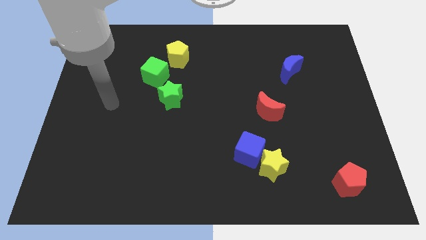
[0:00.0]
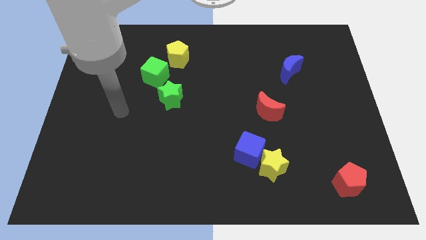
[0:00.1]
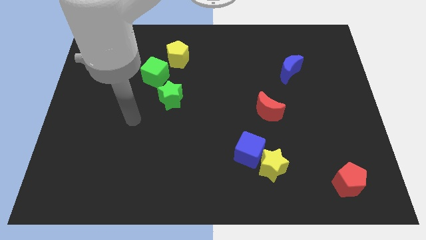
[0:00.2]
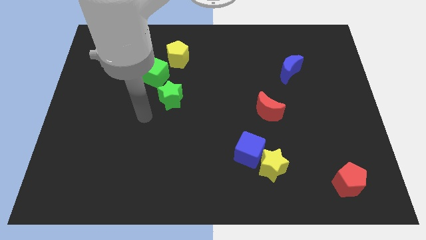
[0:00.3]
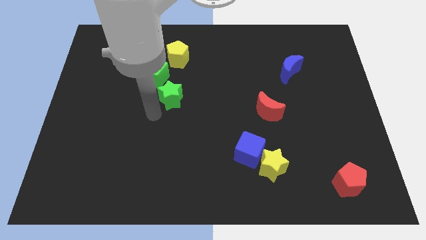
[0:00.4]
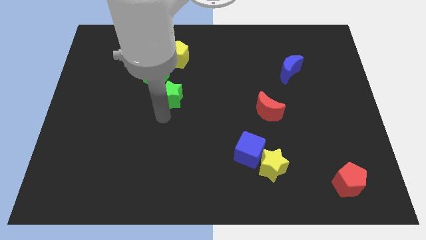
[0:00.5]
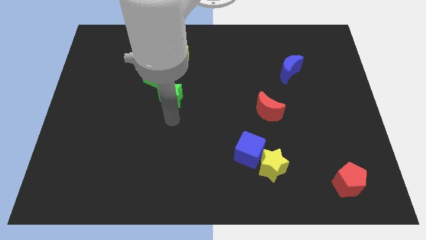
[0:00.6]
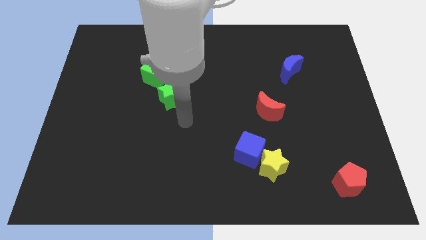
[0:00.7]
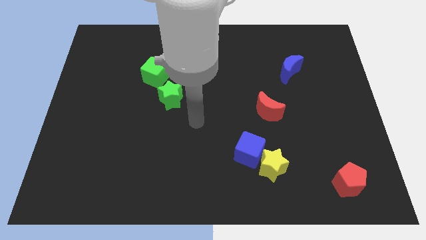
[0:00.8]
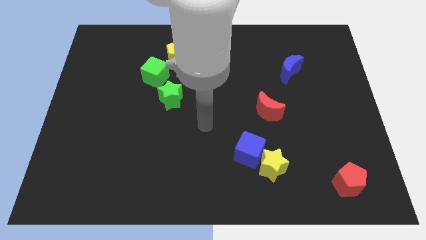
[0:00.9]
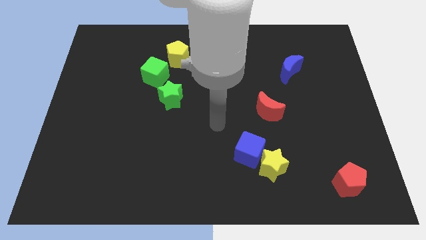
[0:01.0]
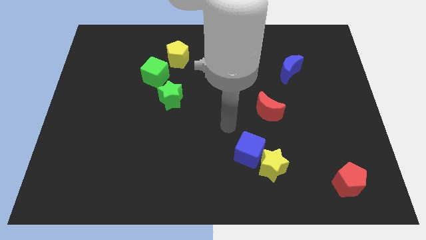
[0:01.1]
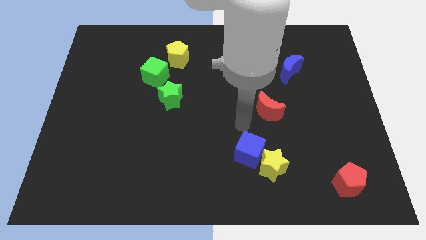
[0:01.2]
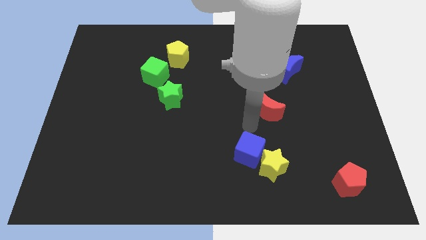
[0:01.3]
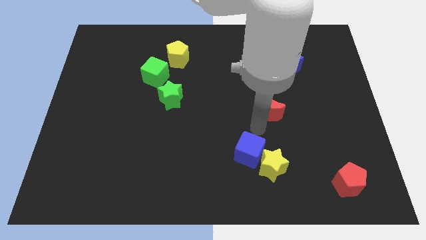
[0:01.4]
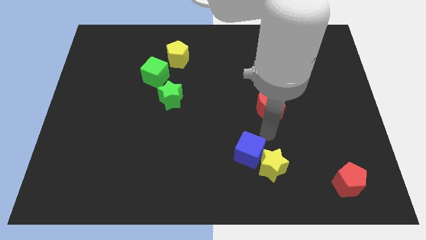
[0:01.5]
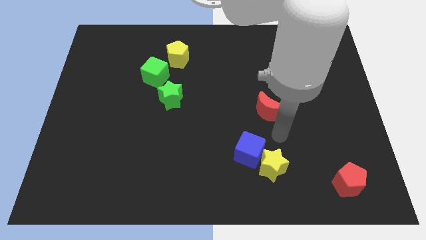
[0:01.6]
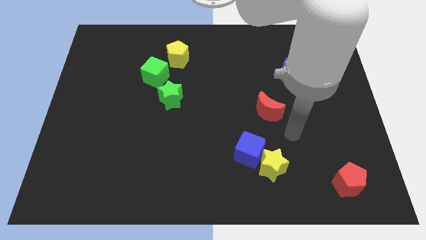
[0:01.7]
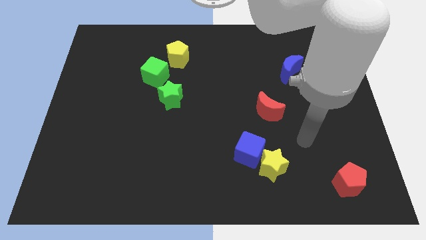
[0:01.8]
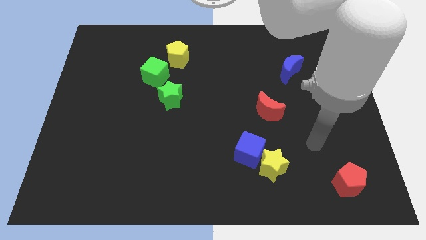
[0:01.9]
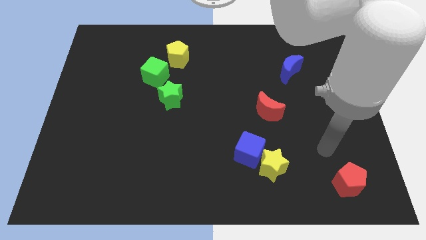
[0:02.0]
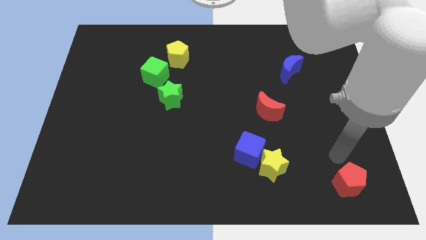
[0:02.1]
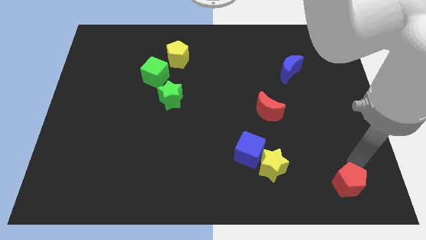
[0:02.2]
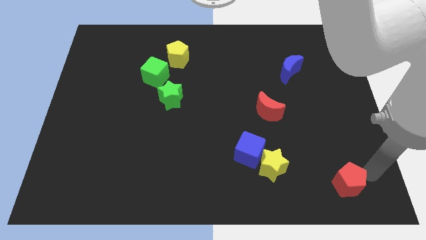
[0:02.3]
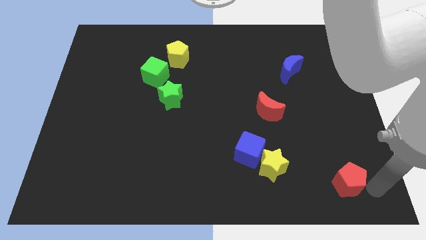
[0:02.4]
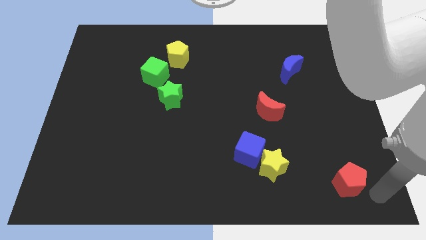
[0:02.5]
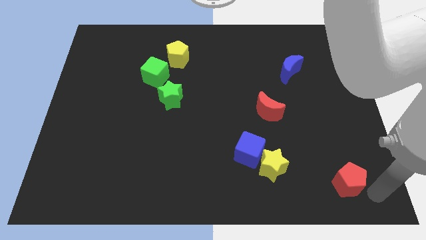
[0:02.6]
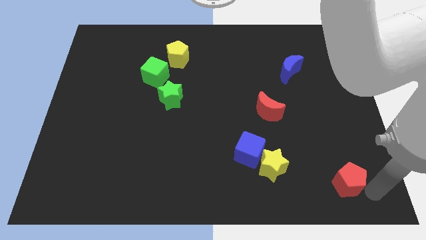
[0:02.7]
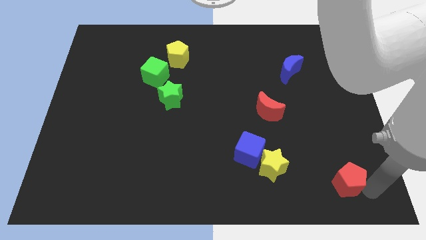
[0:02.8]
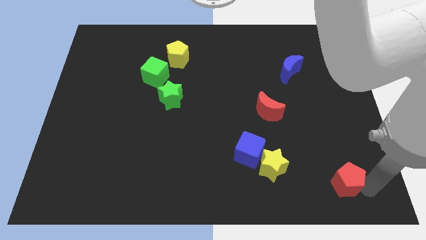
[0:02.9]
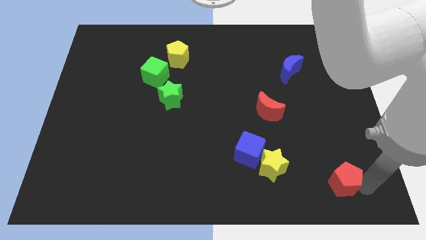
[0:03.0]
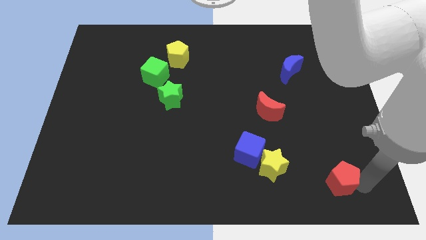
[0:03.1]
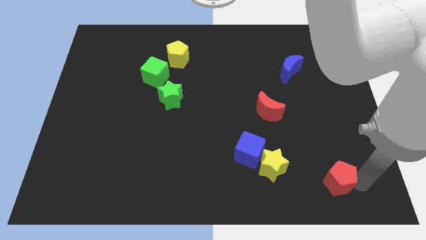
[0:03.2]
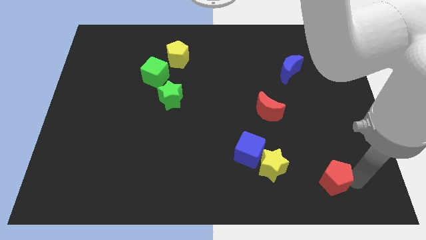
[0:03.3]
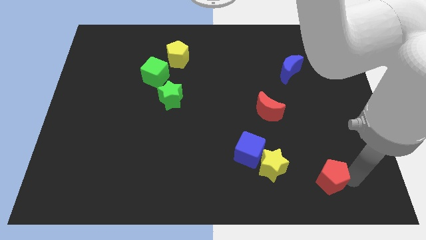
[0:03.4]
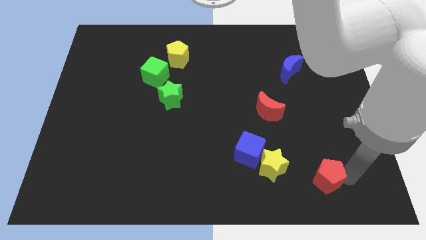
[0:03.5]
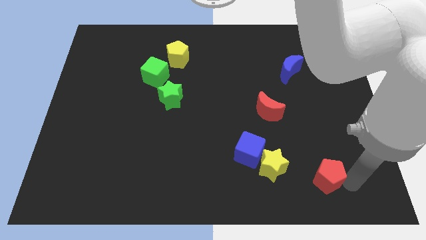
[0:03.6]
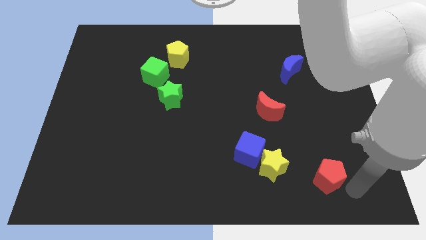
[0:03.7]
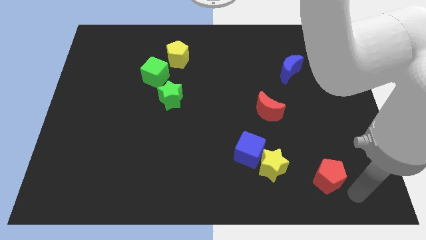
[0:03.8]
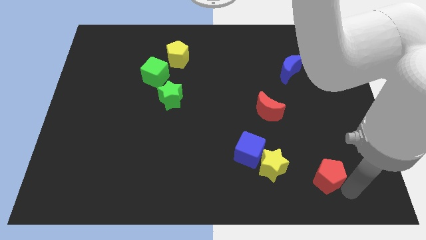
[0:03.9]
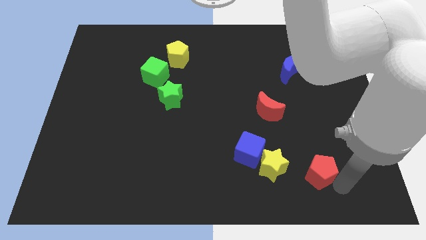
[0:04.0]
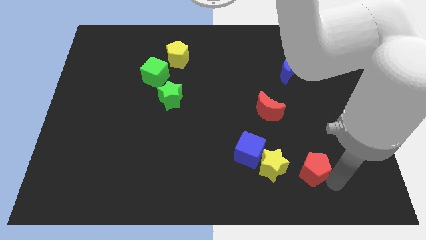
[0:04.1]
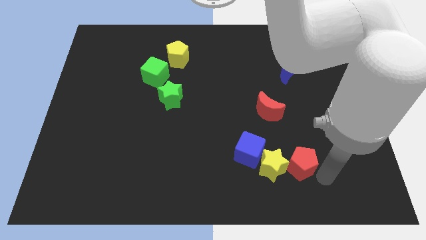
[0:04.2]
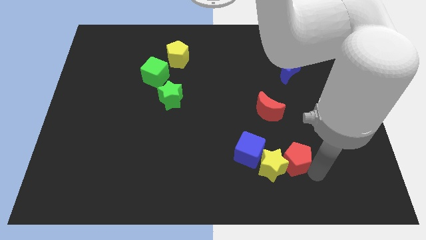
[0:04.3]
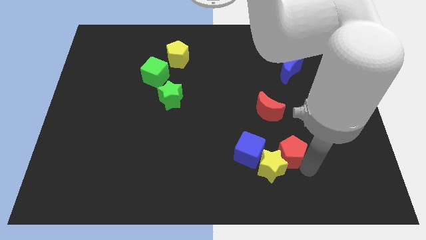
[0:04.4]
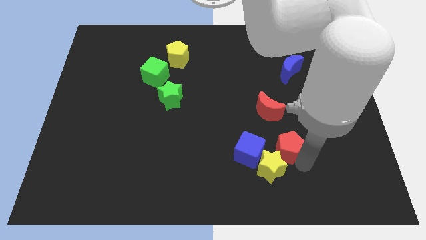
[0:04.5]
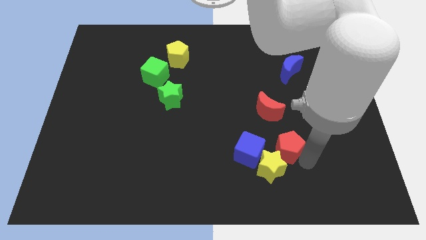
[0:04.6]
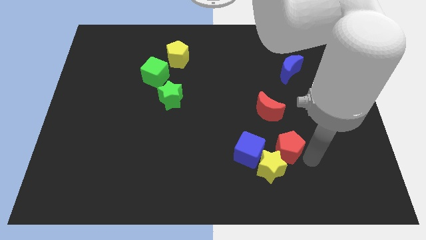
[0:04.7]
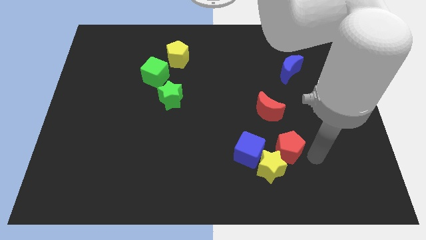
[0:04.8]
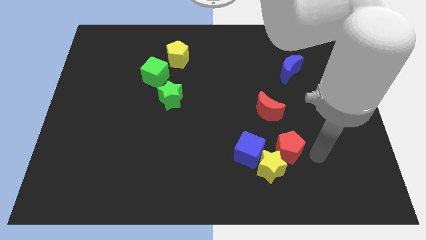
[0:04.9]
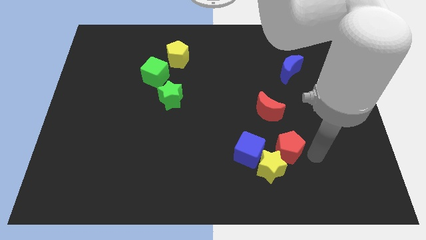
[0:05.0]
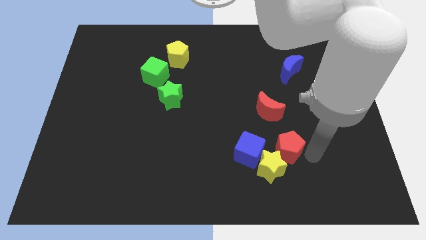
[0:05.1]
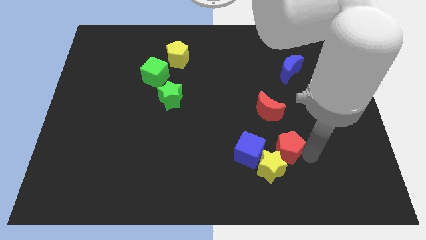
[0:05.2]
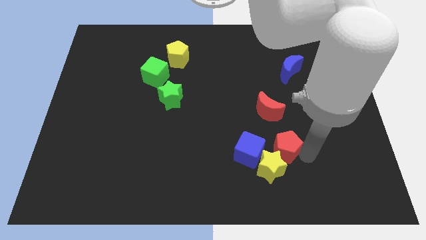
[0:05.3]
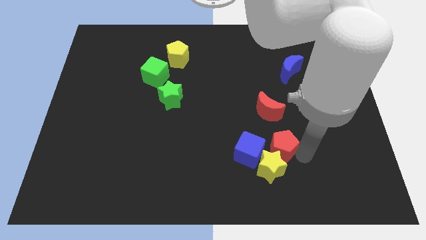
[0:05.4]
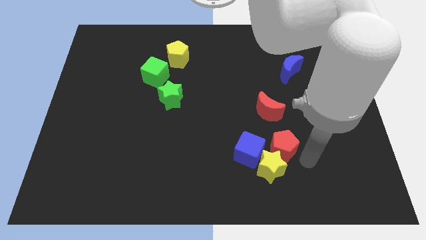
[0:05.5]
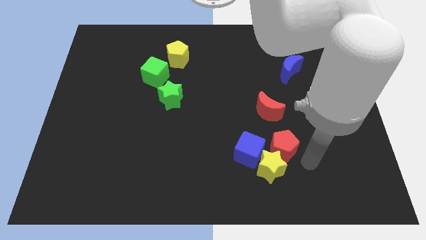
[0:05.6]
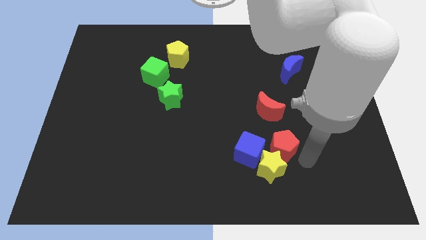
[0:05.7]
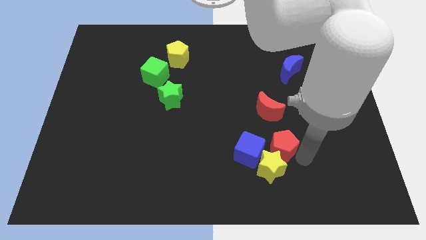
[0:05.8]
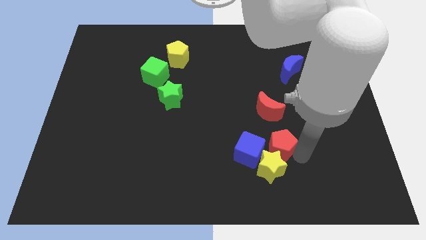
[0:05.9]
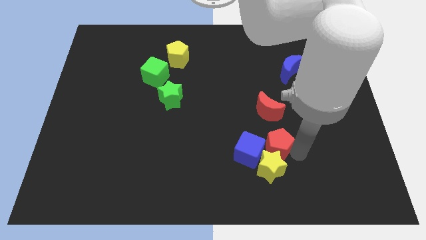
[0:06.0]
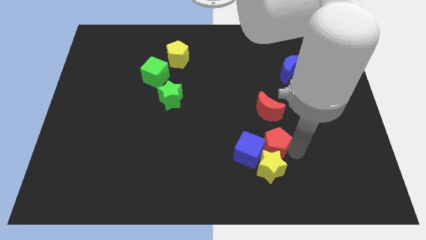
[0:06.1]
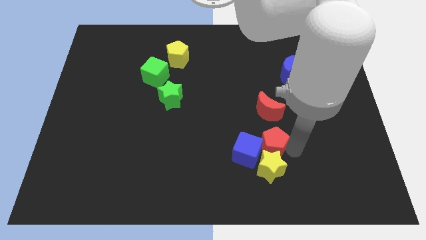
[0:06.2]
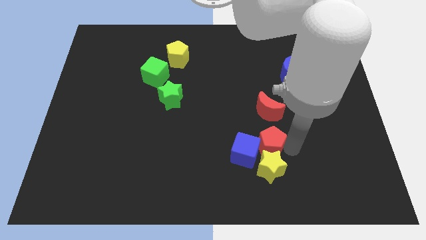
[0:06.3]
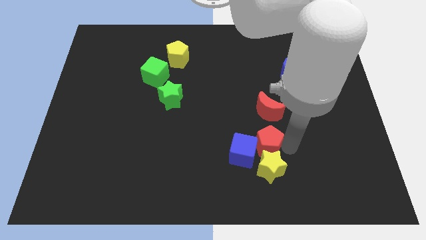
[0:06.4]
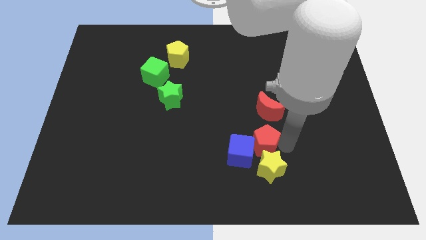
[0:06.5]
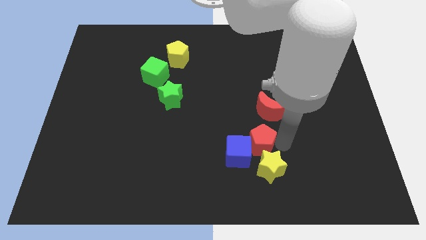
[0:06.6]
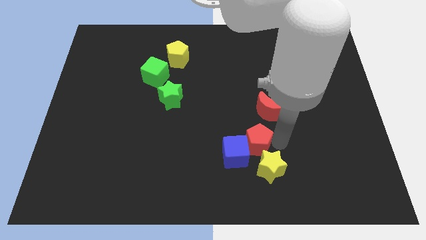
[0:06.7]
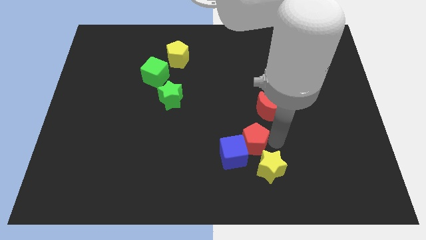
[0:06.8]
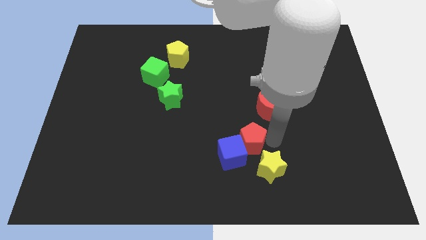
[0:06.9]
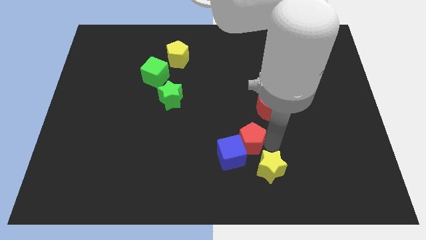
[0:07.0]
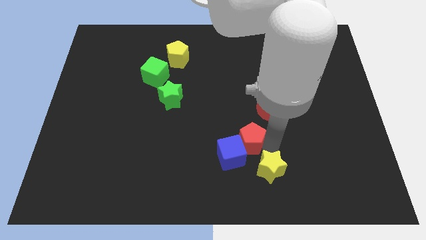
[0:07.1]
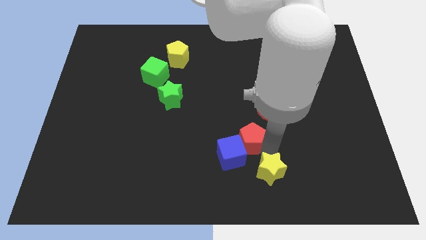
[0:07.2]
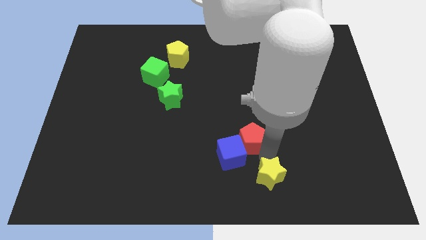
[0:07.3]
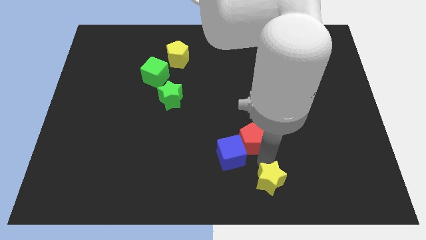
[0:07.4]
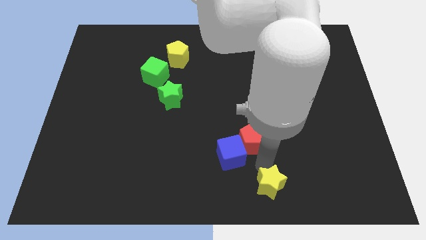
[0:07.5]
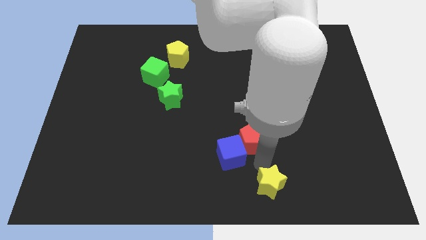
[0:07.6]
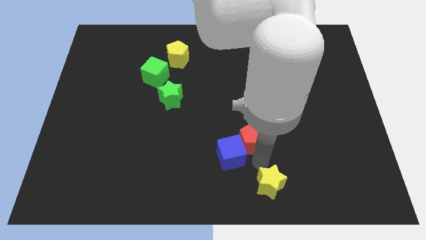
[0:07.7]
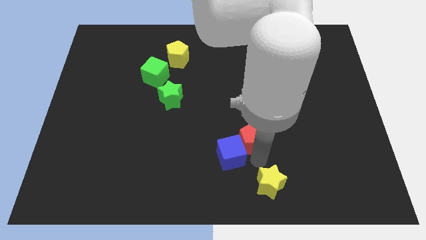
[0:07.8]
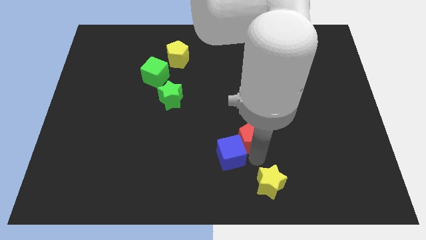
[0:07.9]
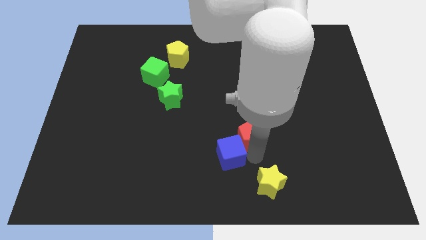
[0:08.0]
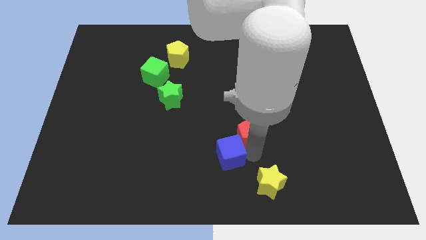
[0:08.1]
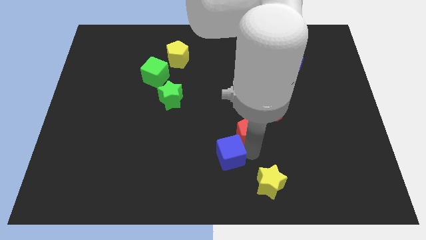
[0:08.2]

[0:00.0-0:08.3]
put the red pentagon to the middle of the board
